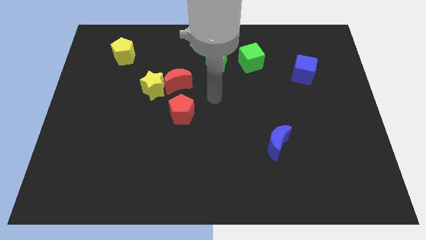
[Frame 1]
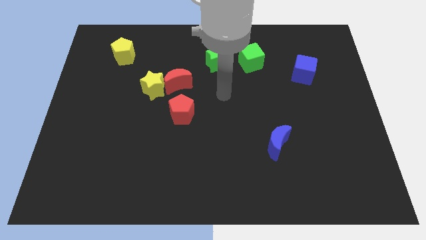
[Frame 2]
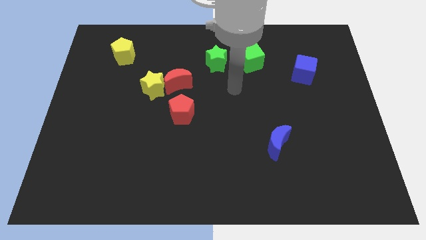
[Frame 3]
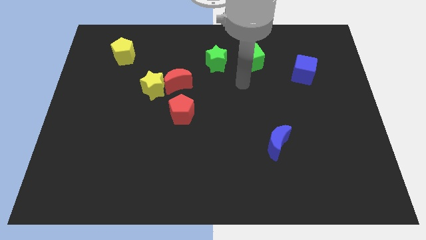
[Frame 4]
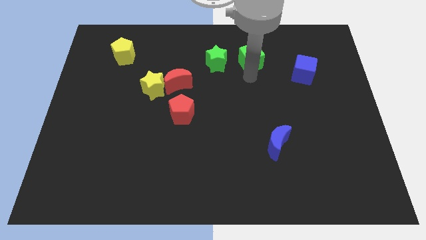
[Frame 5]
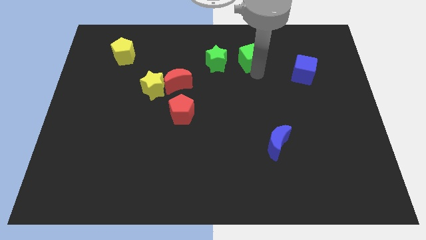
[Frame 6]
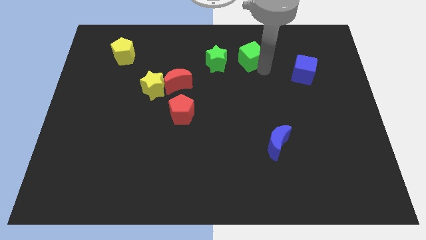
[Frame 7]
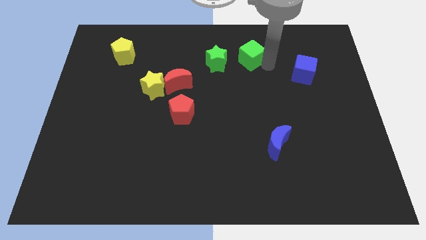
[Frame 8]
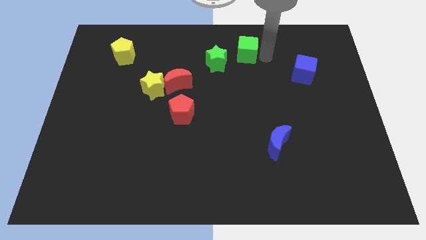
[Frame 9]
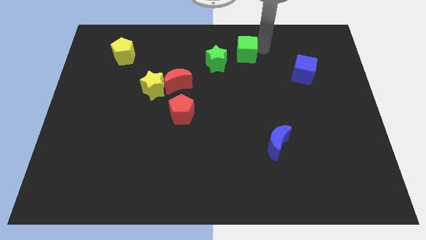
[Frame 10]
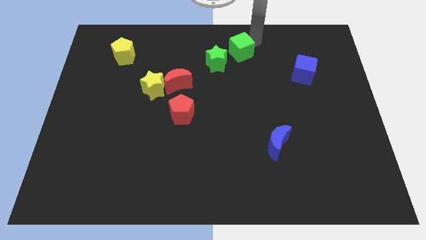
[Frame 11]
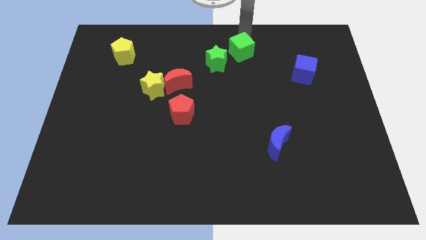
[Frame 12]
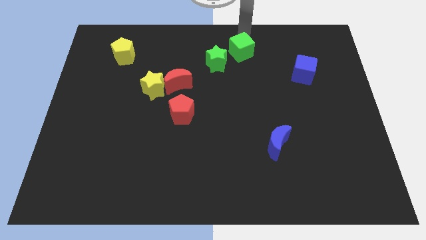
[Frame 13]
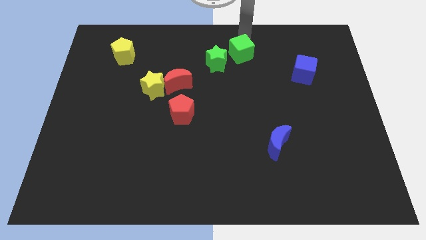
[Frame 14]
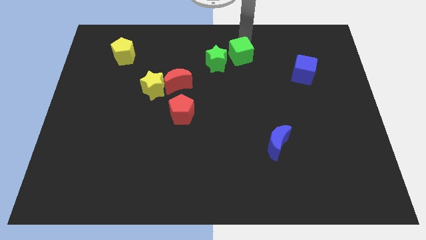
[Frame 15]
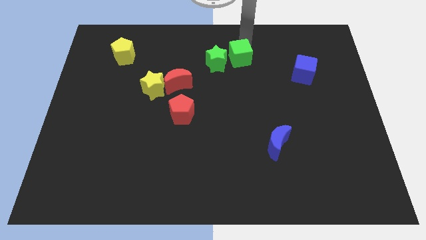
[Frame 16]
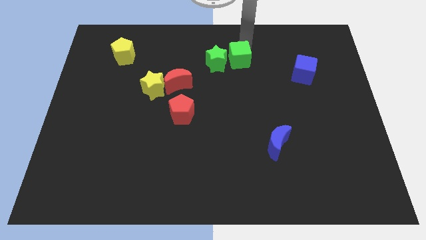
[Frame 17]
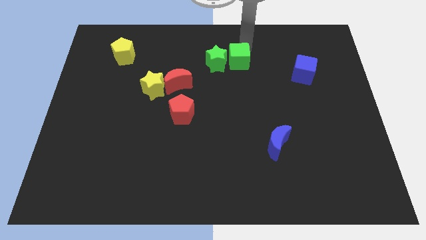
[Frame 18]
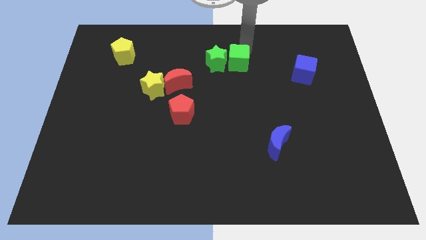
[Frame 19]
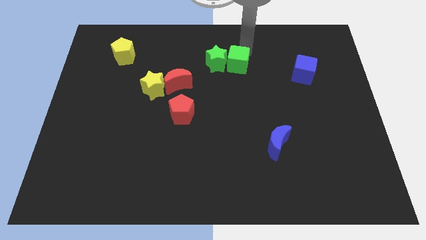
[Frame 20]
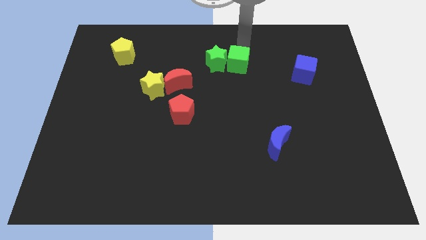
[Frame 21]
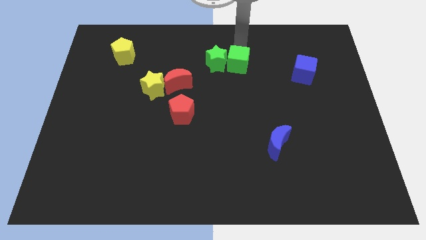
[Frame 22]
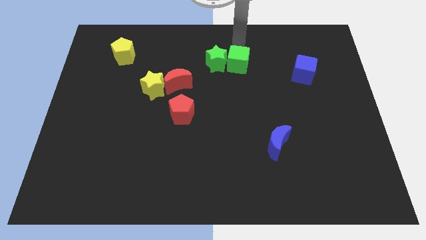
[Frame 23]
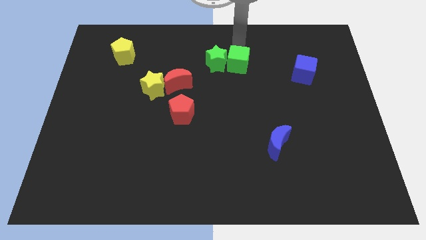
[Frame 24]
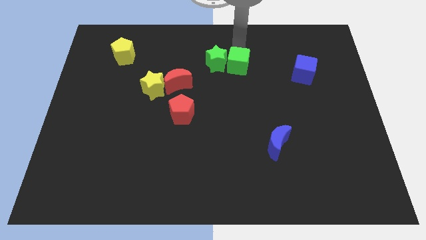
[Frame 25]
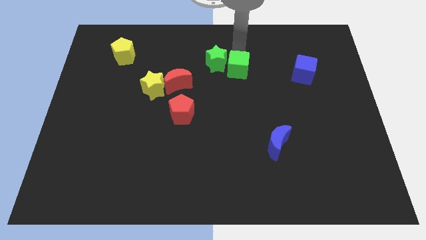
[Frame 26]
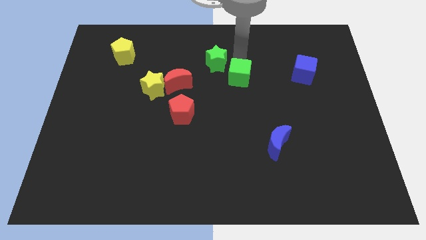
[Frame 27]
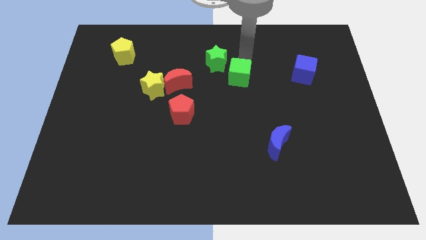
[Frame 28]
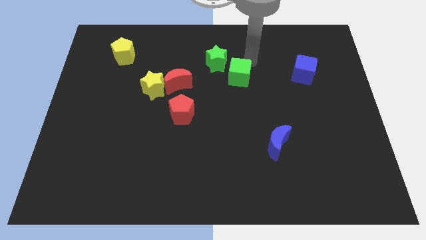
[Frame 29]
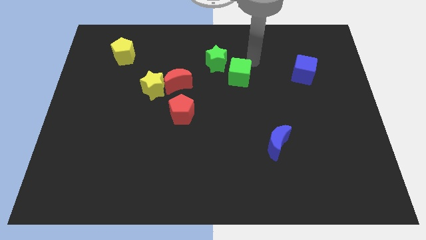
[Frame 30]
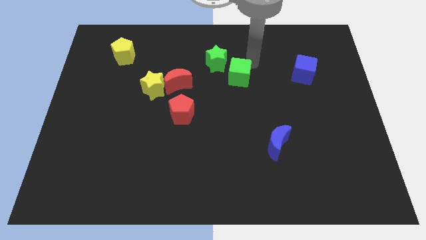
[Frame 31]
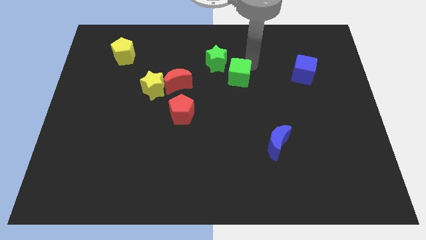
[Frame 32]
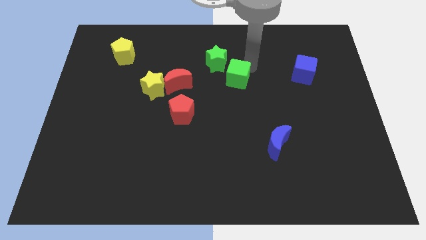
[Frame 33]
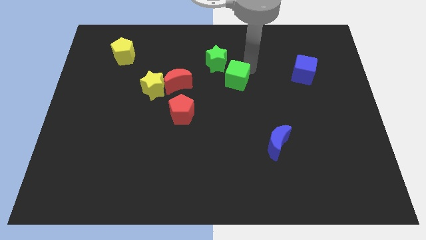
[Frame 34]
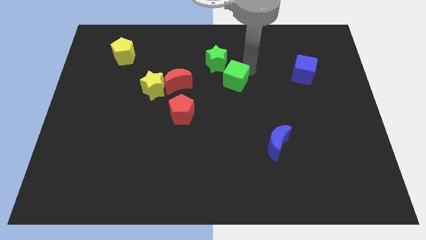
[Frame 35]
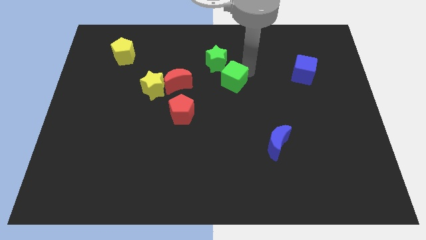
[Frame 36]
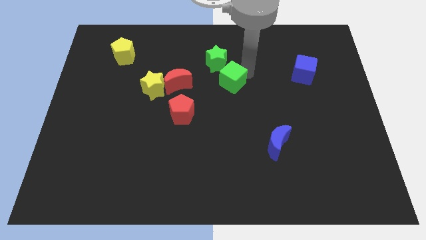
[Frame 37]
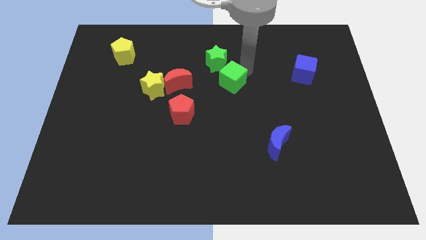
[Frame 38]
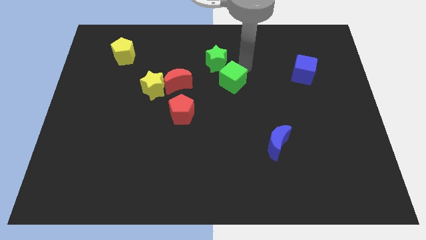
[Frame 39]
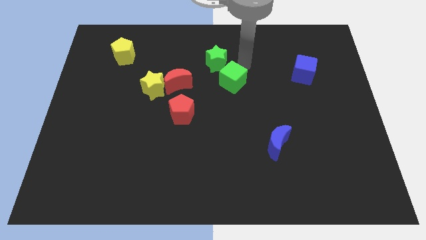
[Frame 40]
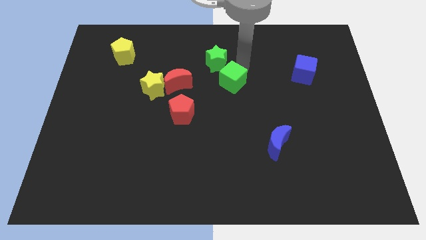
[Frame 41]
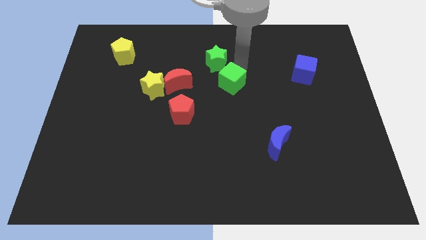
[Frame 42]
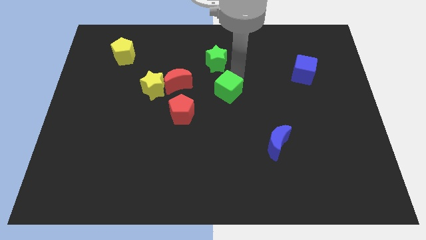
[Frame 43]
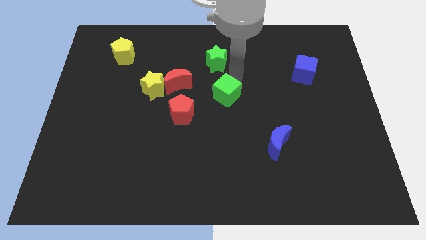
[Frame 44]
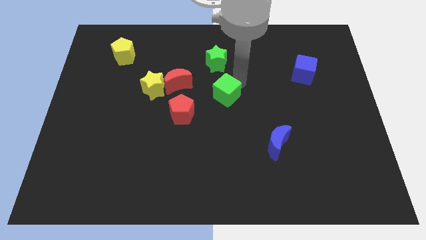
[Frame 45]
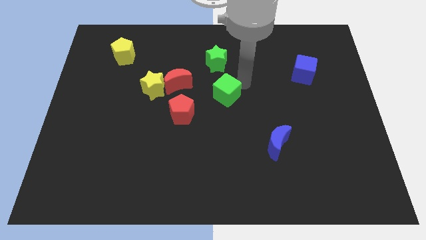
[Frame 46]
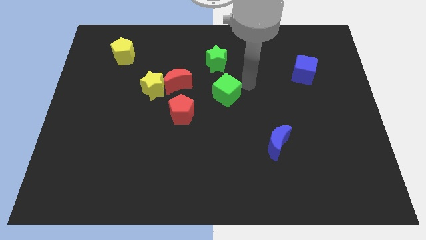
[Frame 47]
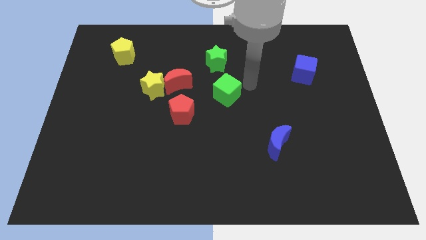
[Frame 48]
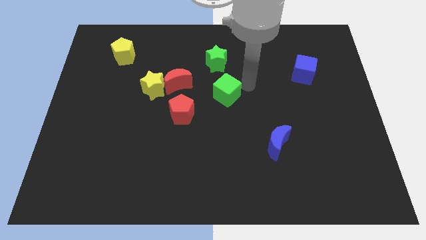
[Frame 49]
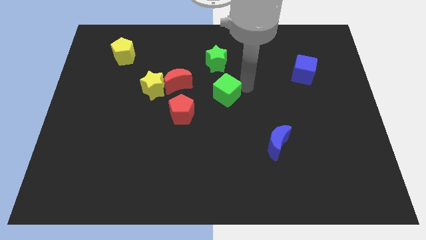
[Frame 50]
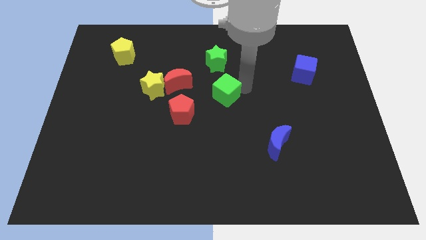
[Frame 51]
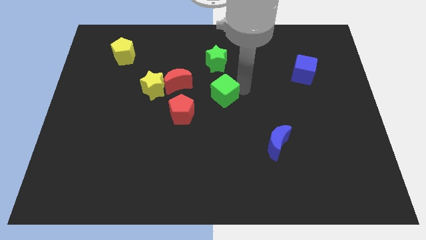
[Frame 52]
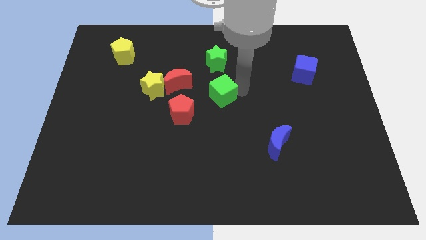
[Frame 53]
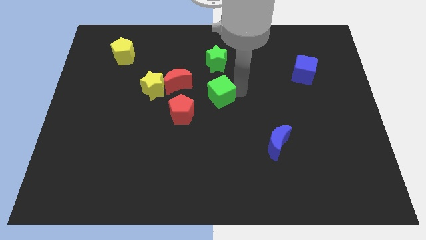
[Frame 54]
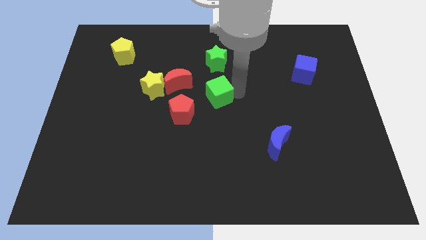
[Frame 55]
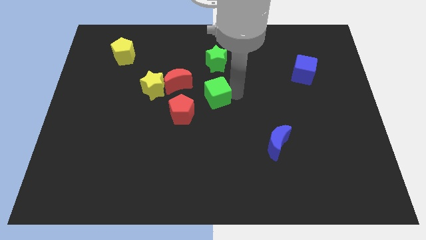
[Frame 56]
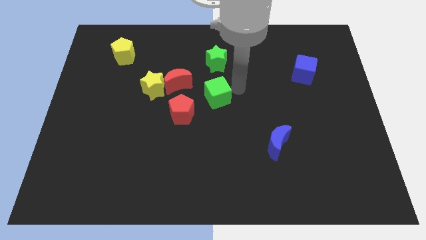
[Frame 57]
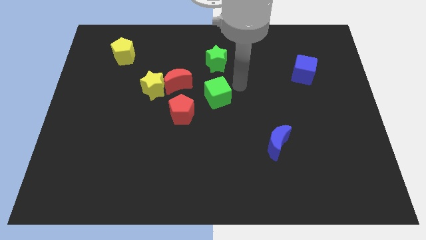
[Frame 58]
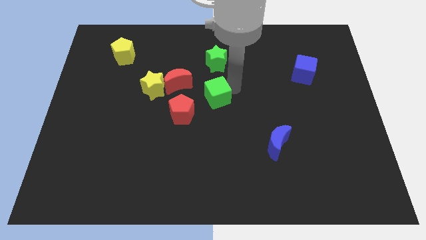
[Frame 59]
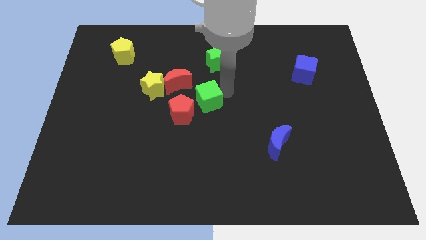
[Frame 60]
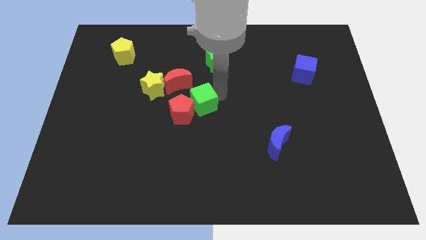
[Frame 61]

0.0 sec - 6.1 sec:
put the green cube next to the red pentagon
